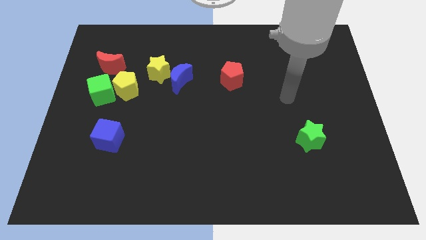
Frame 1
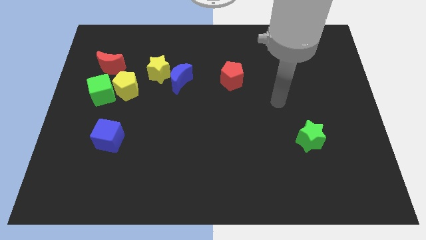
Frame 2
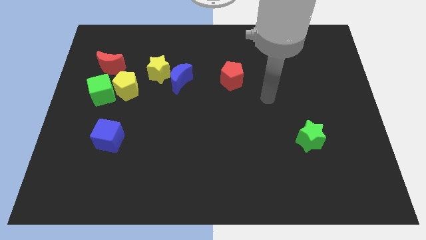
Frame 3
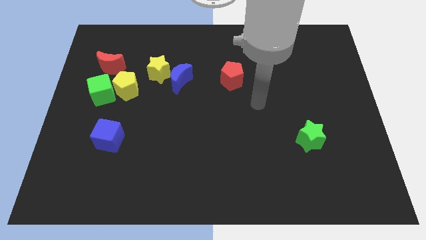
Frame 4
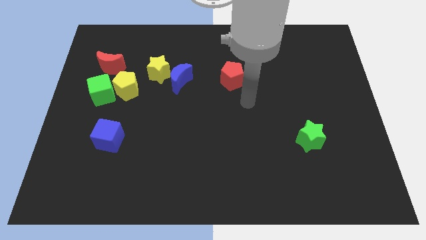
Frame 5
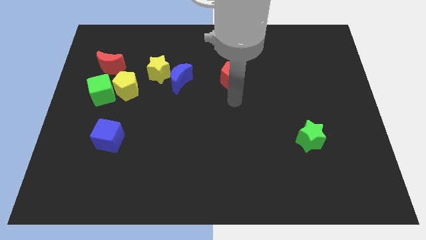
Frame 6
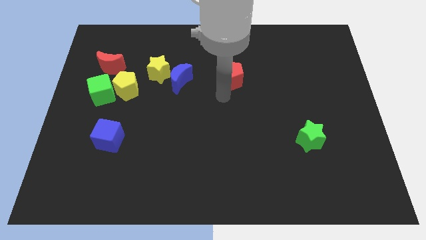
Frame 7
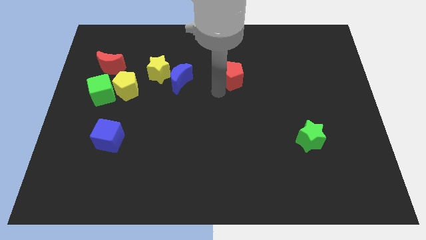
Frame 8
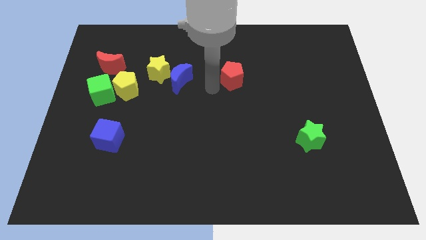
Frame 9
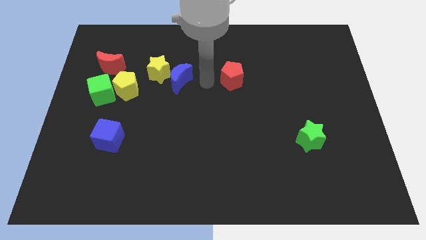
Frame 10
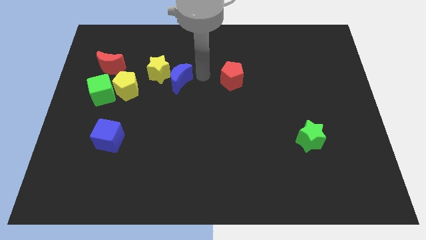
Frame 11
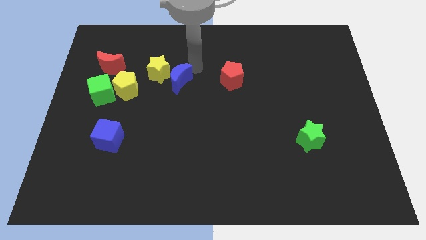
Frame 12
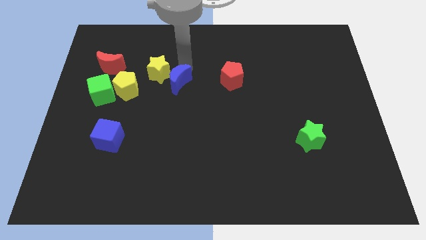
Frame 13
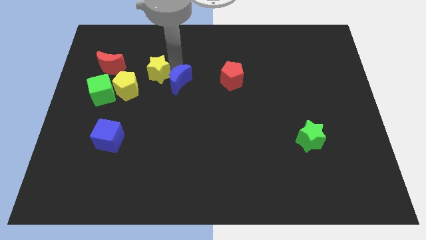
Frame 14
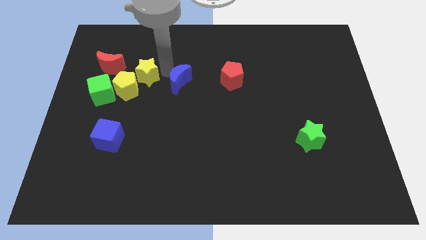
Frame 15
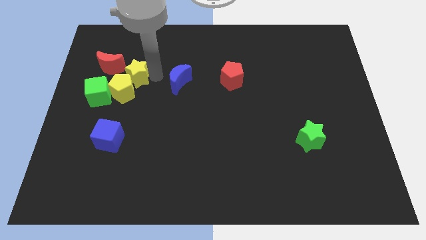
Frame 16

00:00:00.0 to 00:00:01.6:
move the blue moon away from the yellow star

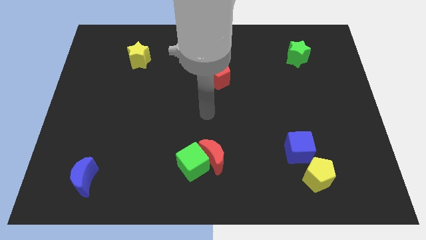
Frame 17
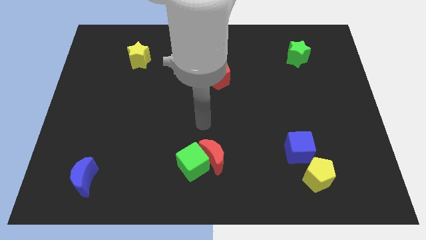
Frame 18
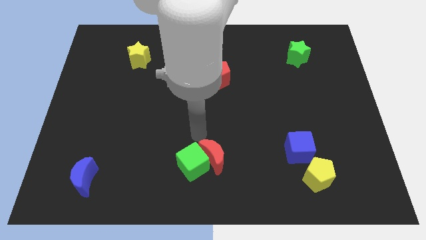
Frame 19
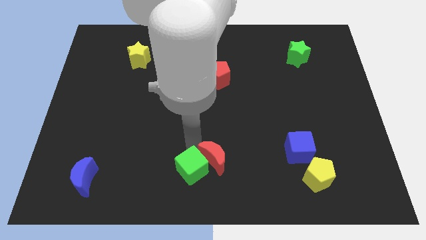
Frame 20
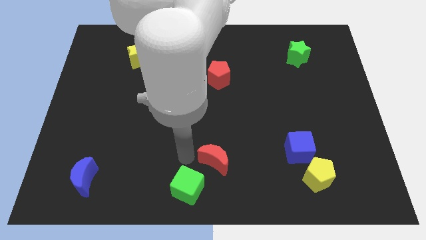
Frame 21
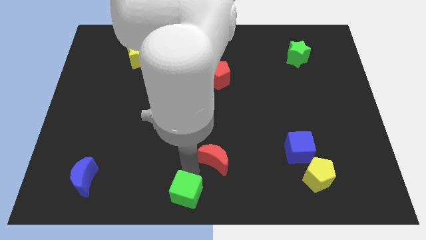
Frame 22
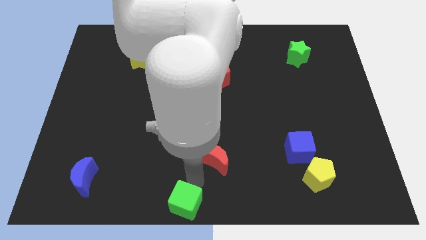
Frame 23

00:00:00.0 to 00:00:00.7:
pull the red moon apart from the green cube

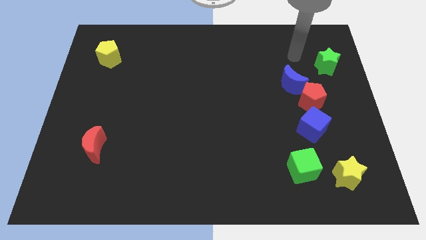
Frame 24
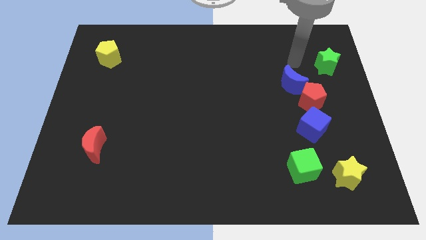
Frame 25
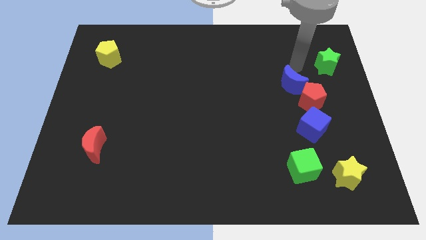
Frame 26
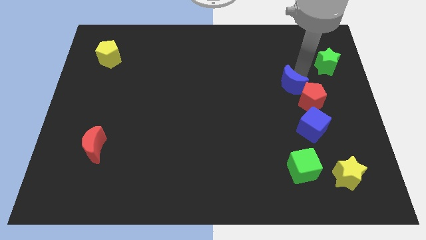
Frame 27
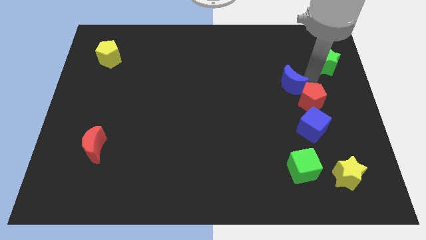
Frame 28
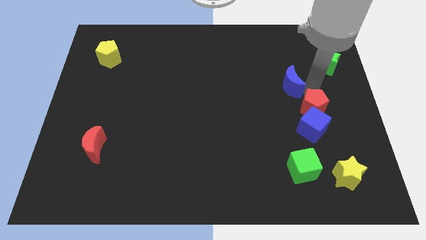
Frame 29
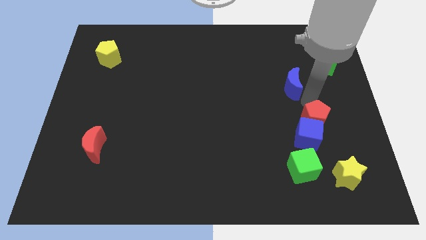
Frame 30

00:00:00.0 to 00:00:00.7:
pull the blue moon apart from the red pentagon

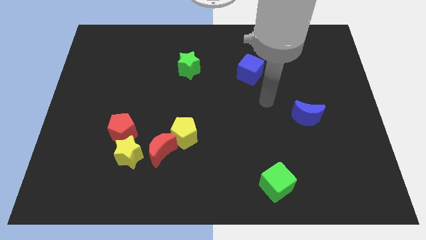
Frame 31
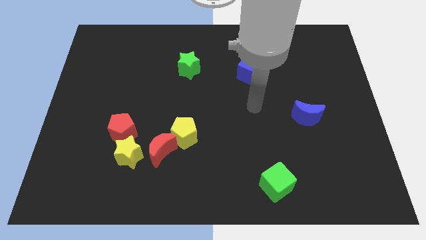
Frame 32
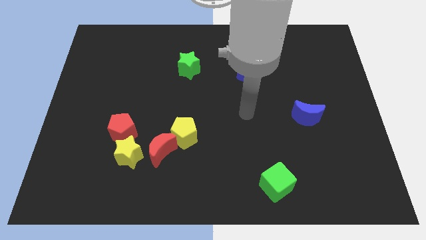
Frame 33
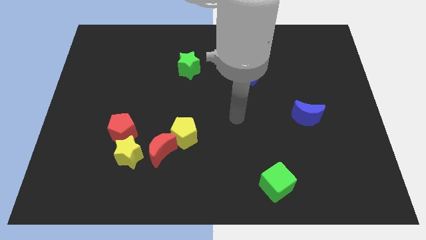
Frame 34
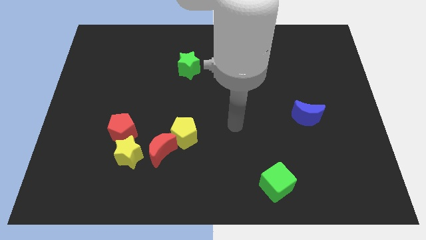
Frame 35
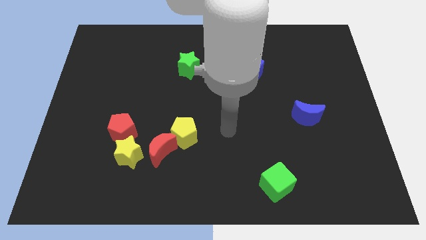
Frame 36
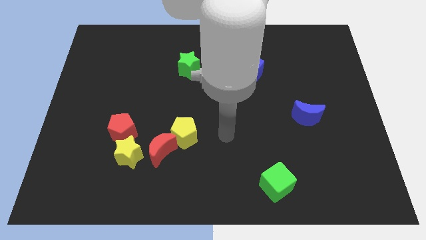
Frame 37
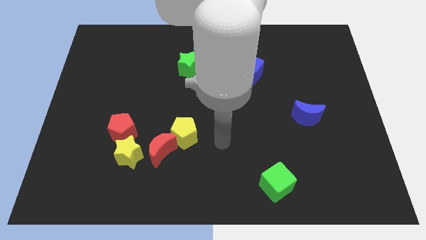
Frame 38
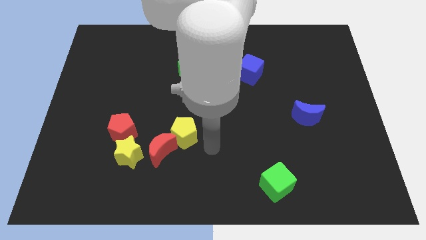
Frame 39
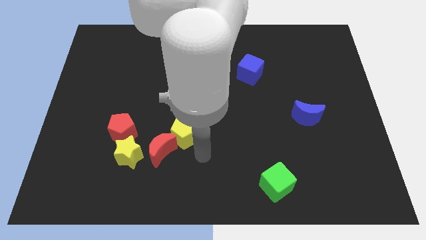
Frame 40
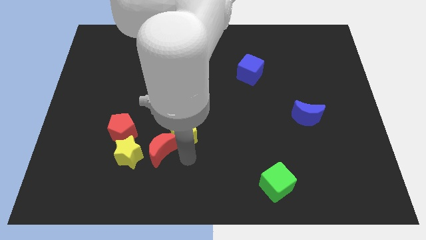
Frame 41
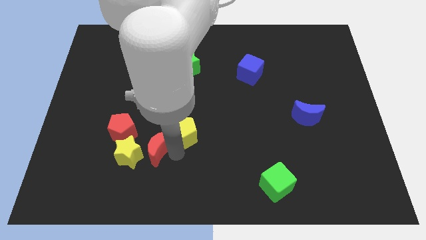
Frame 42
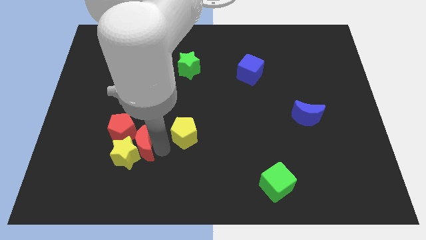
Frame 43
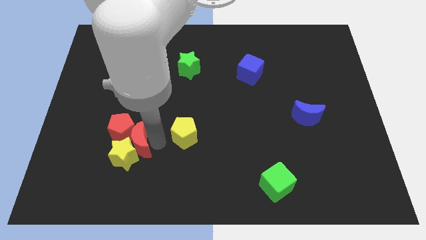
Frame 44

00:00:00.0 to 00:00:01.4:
separate the yellow pentagon from the red moon

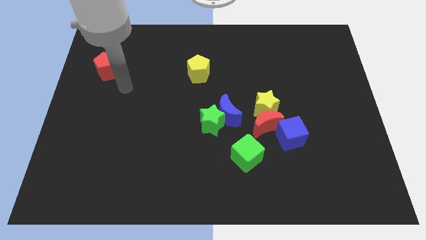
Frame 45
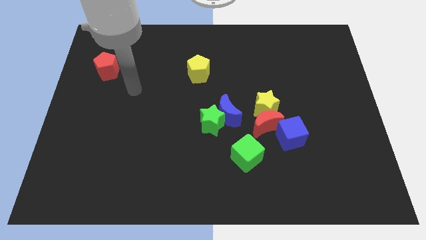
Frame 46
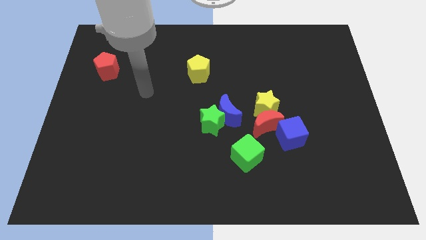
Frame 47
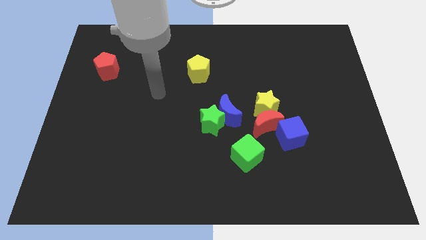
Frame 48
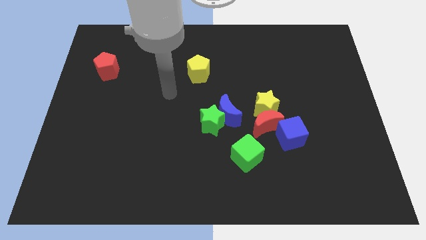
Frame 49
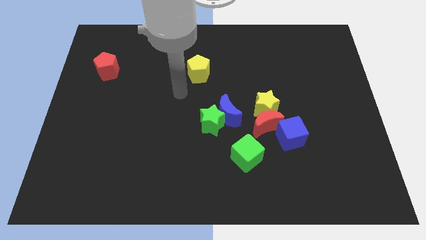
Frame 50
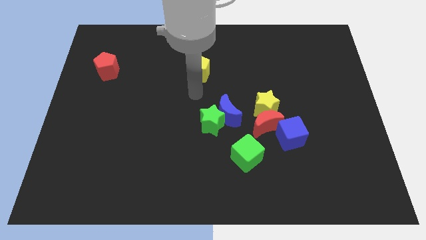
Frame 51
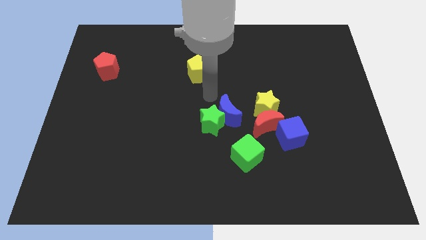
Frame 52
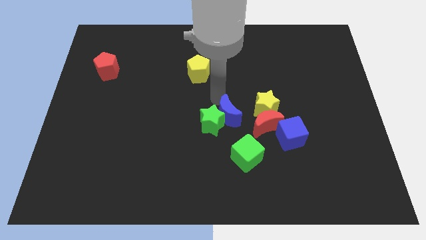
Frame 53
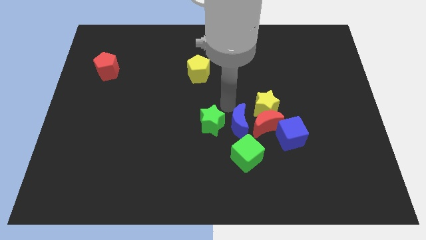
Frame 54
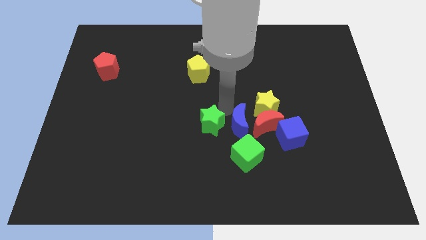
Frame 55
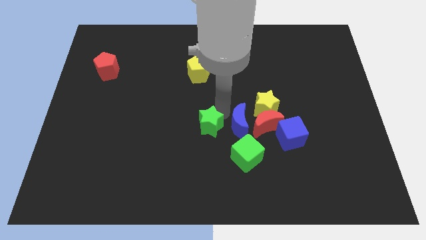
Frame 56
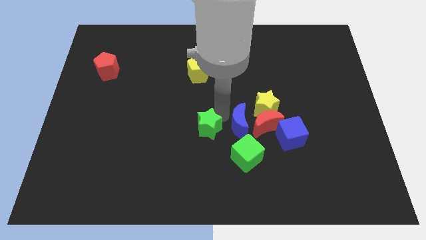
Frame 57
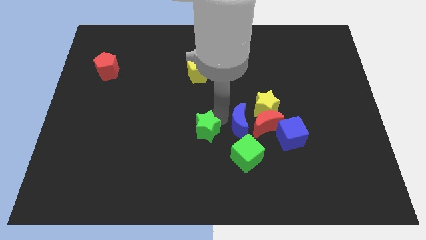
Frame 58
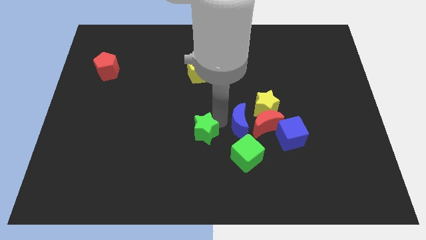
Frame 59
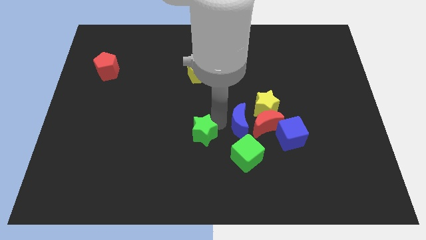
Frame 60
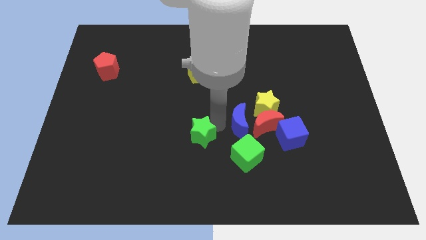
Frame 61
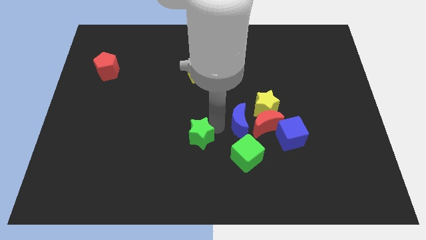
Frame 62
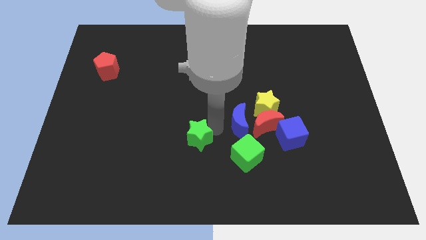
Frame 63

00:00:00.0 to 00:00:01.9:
separate the green star from the blue moon

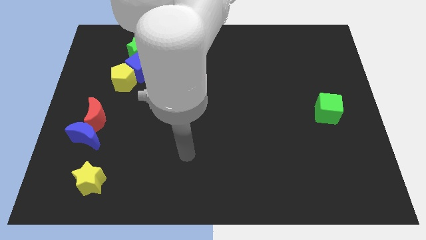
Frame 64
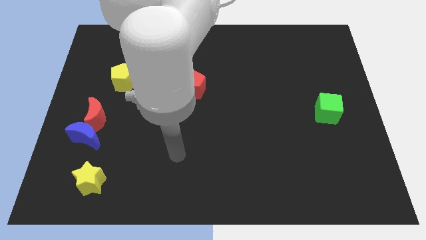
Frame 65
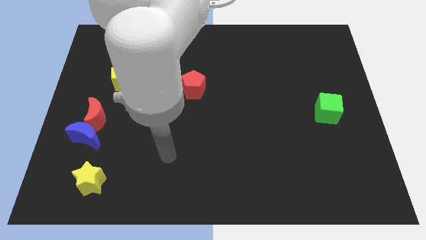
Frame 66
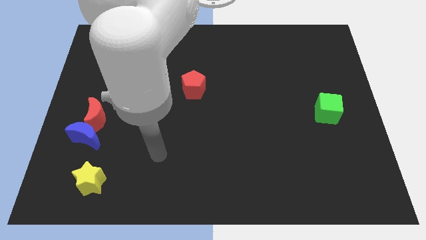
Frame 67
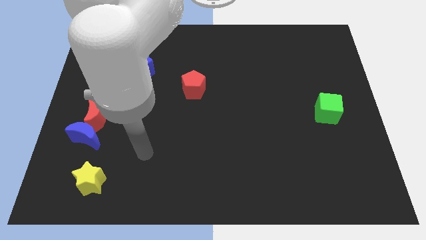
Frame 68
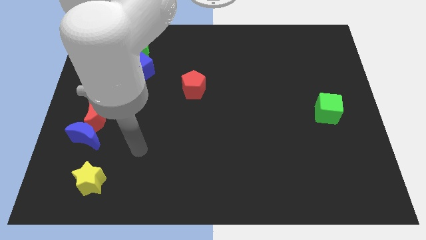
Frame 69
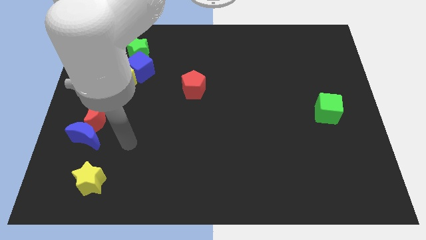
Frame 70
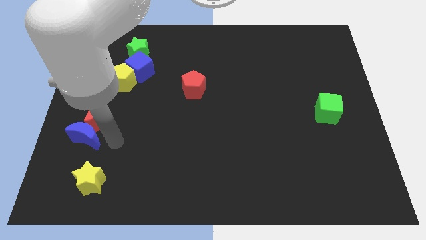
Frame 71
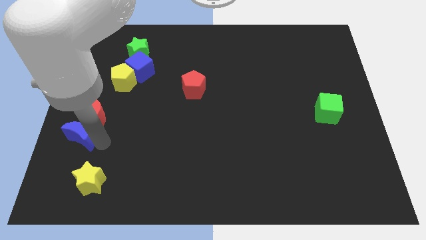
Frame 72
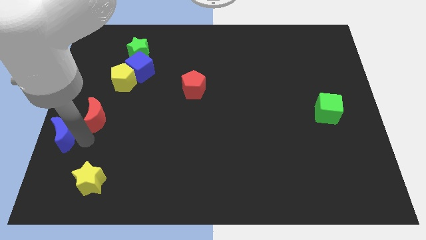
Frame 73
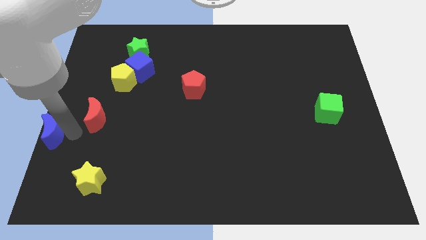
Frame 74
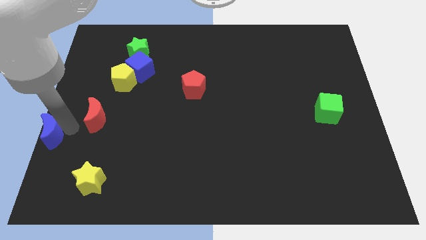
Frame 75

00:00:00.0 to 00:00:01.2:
pull the red moon apart from the blue moon

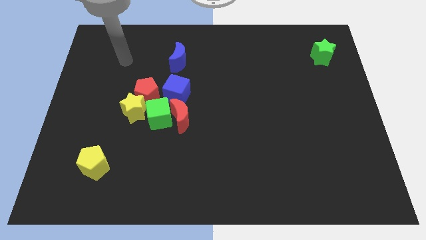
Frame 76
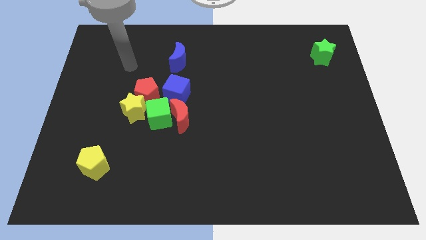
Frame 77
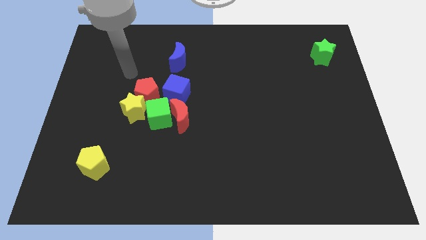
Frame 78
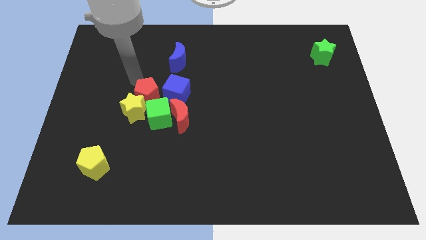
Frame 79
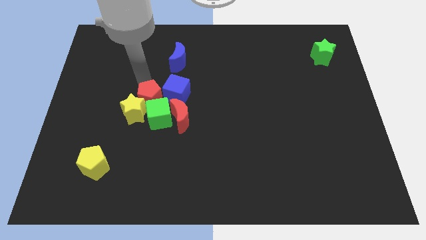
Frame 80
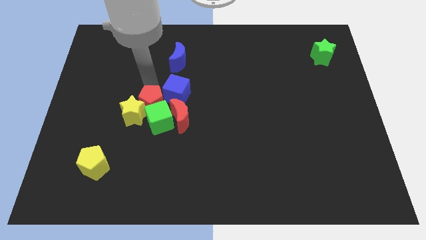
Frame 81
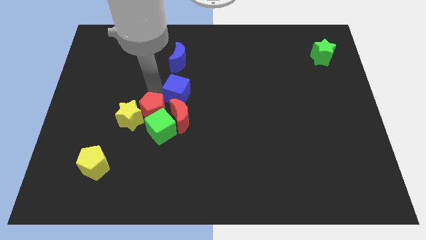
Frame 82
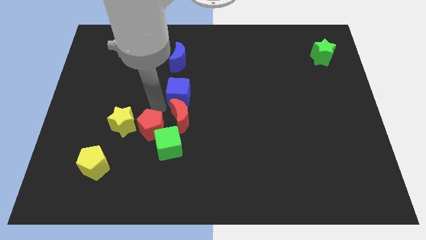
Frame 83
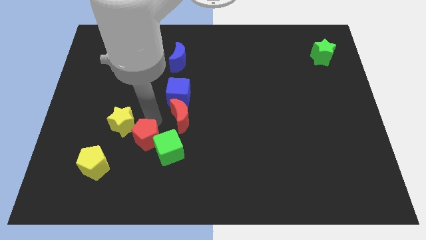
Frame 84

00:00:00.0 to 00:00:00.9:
separate the yellow star from the red pentagon and green cube

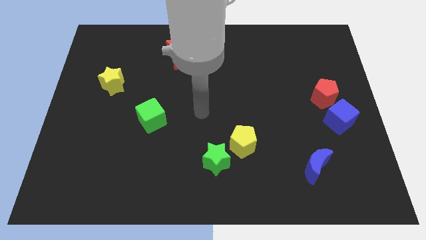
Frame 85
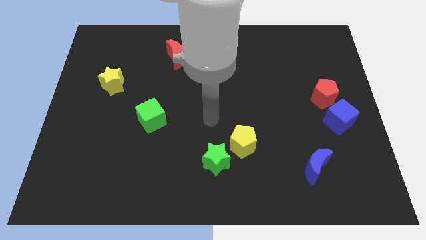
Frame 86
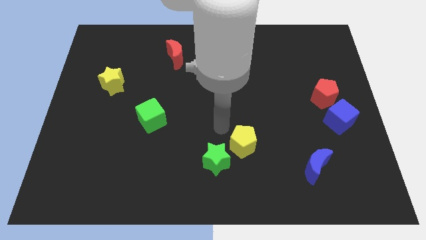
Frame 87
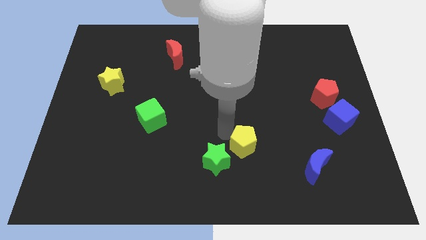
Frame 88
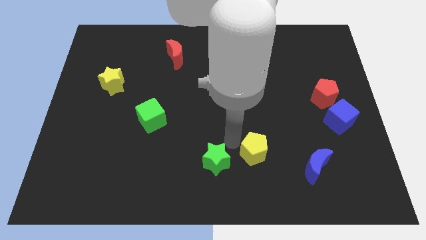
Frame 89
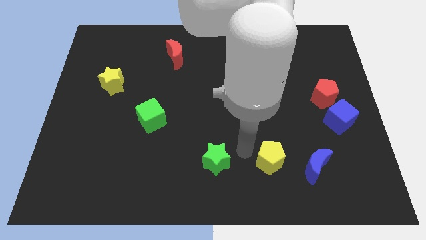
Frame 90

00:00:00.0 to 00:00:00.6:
pull the green star apart from the yellow pentagon

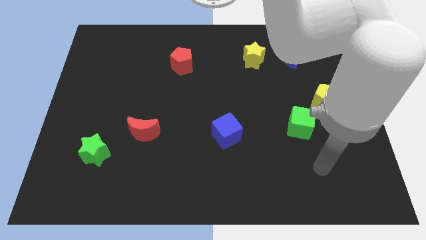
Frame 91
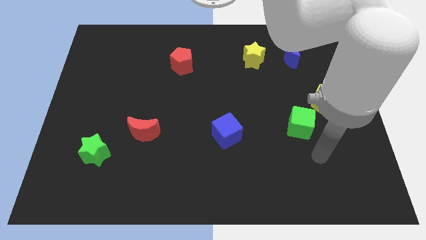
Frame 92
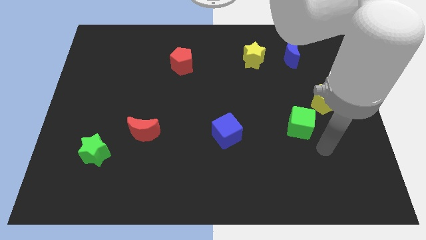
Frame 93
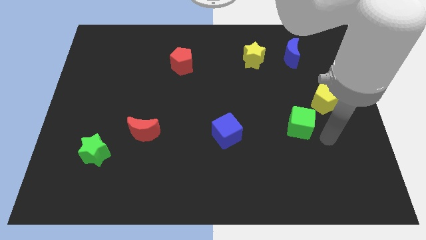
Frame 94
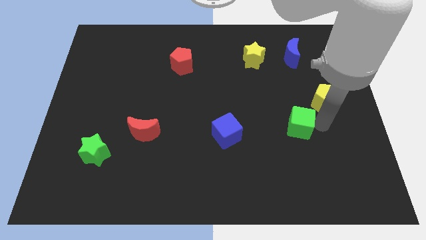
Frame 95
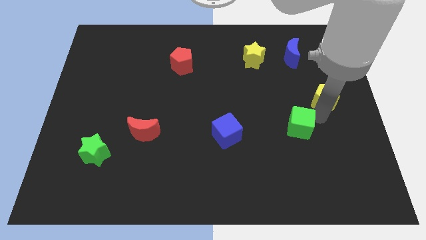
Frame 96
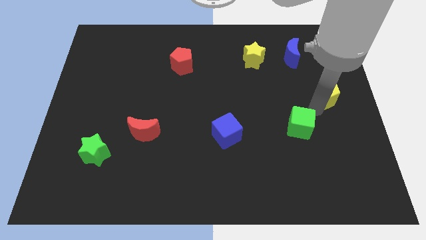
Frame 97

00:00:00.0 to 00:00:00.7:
move the green cube away from the yellow pentagon
